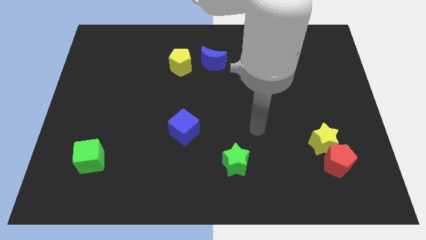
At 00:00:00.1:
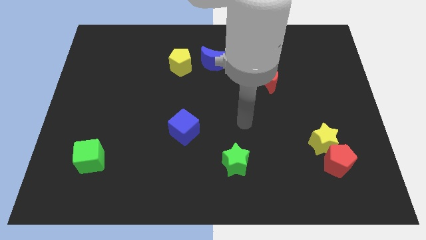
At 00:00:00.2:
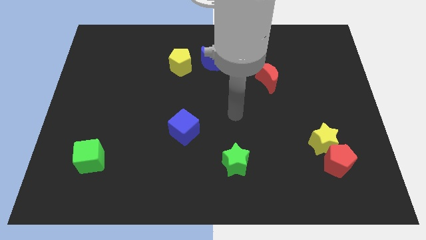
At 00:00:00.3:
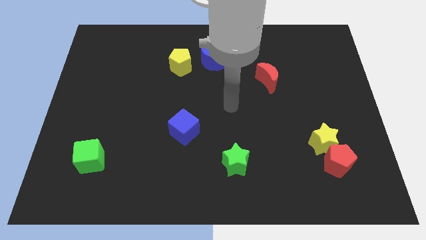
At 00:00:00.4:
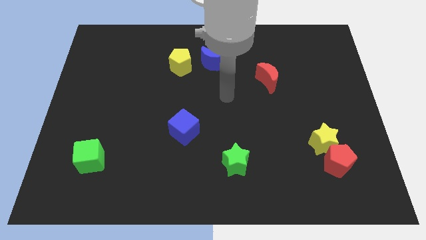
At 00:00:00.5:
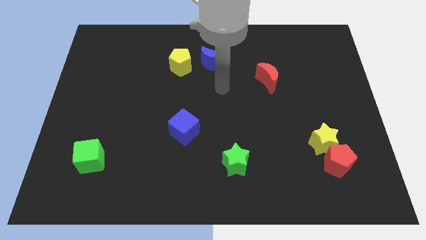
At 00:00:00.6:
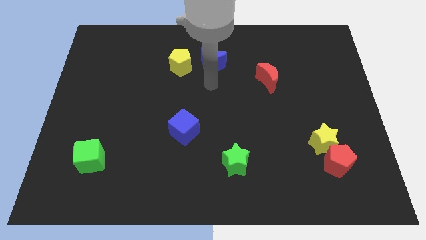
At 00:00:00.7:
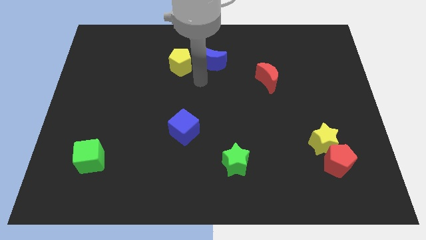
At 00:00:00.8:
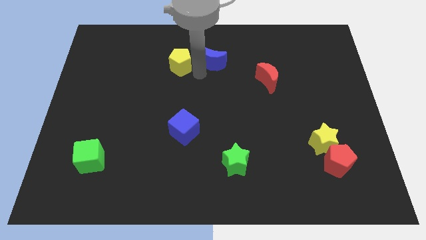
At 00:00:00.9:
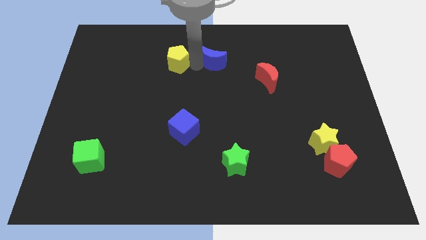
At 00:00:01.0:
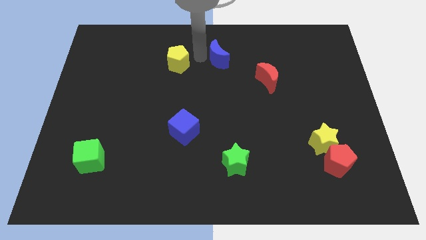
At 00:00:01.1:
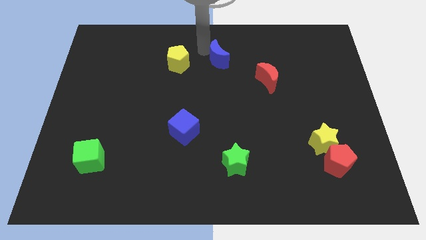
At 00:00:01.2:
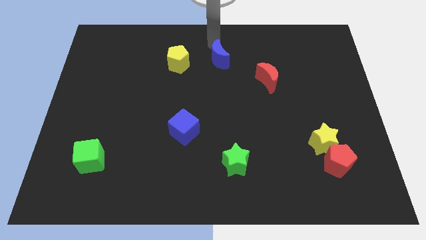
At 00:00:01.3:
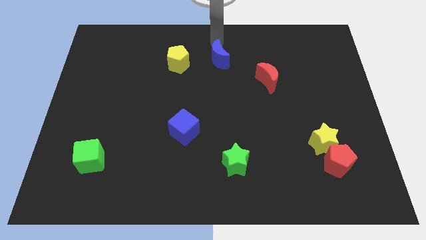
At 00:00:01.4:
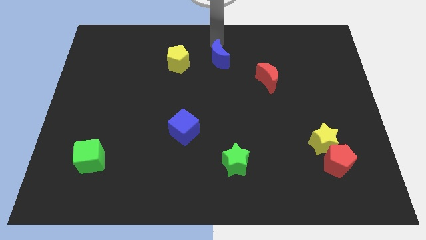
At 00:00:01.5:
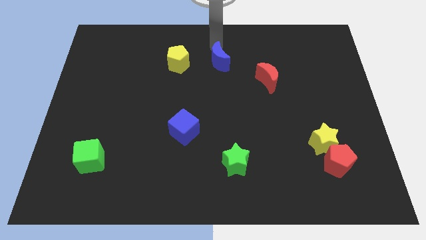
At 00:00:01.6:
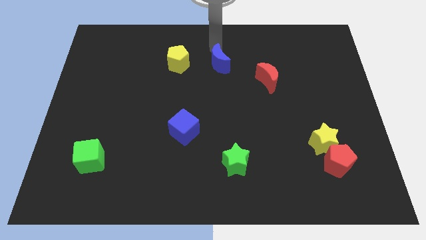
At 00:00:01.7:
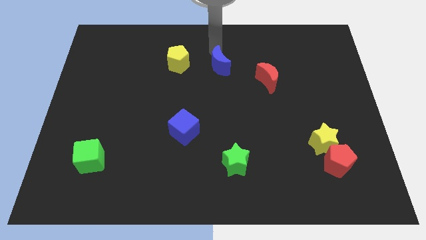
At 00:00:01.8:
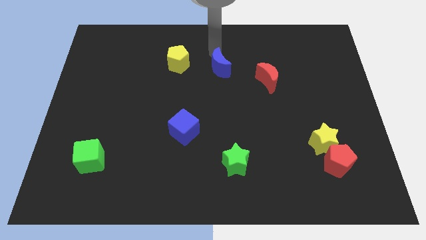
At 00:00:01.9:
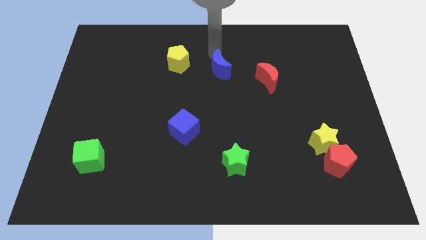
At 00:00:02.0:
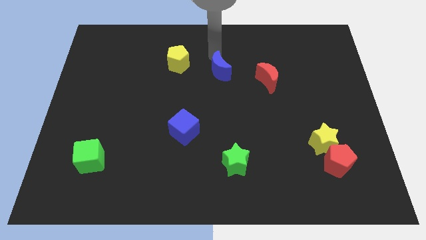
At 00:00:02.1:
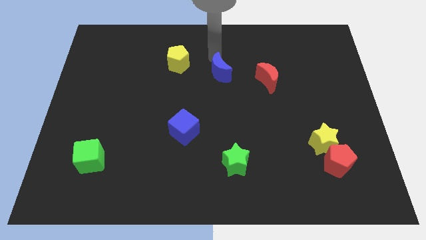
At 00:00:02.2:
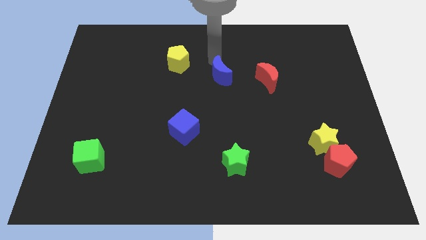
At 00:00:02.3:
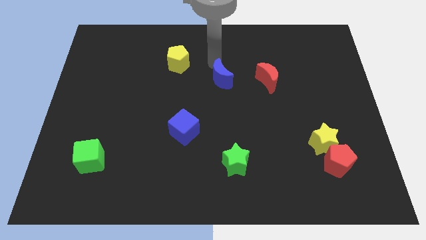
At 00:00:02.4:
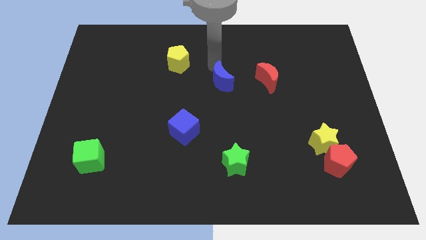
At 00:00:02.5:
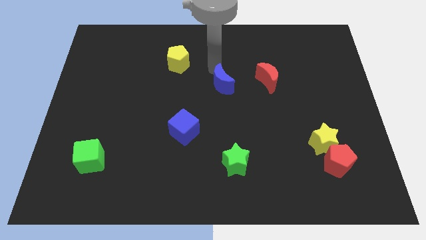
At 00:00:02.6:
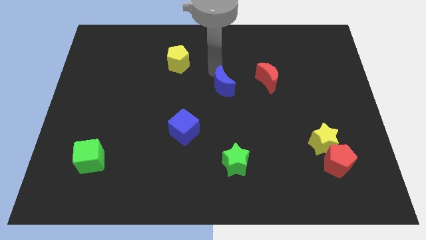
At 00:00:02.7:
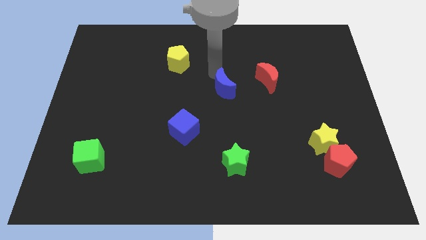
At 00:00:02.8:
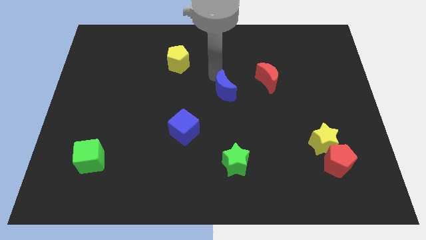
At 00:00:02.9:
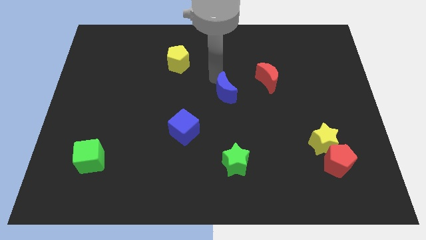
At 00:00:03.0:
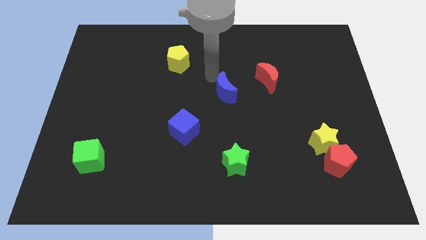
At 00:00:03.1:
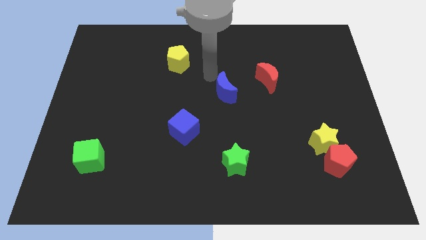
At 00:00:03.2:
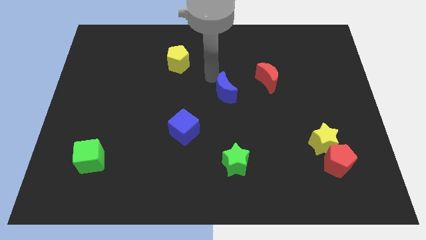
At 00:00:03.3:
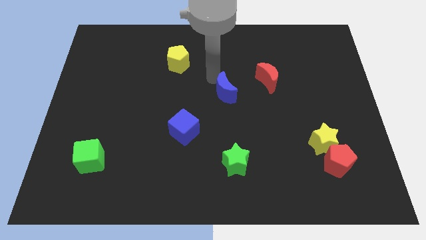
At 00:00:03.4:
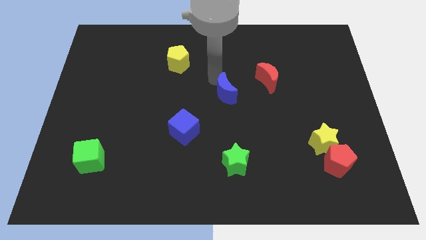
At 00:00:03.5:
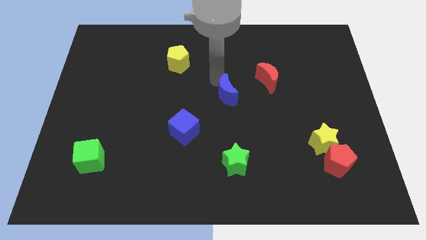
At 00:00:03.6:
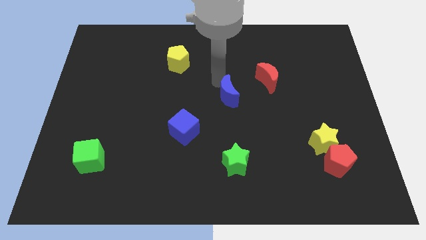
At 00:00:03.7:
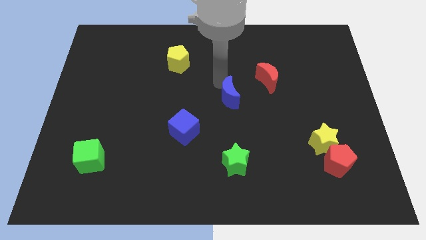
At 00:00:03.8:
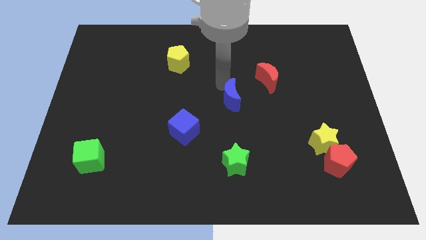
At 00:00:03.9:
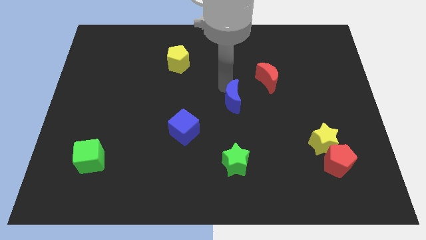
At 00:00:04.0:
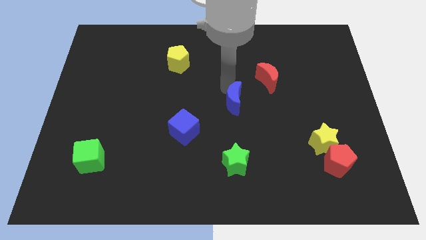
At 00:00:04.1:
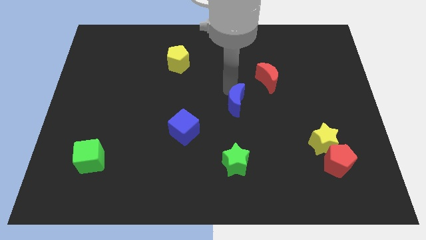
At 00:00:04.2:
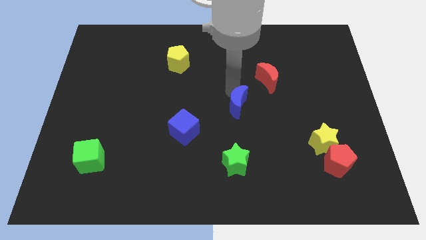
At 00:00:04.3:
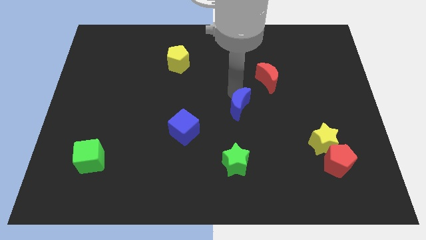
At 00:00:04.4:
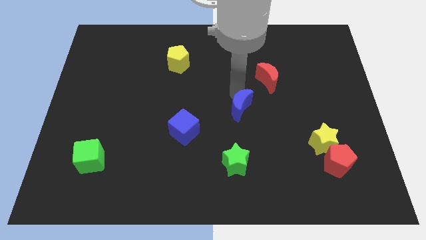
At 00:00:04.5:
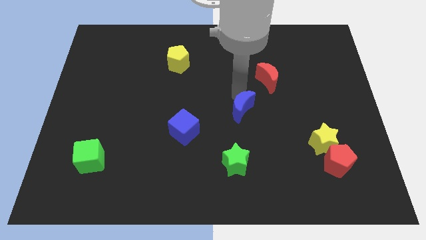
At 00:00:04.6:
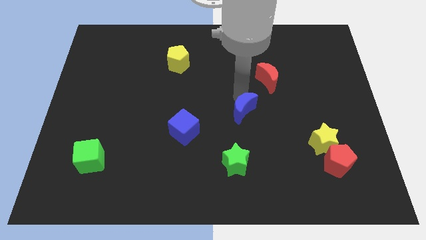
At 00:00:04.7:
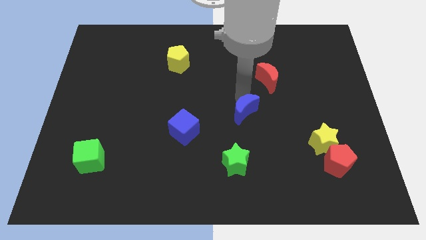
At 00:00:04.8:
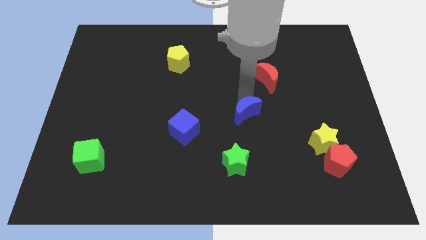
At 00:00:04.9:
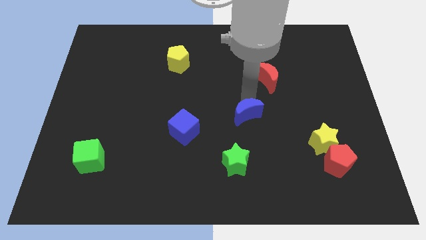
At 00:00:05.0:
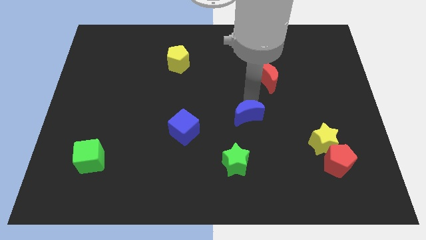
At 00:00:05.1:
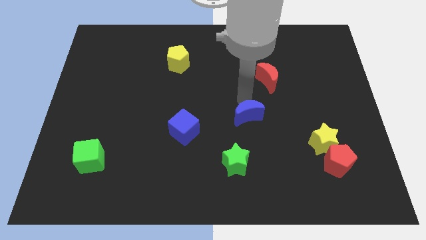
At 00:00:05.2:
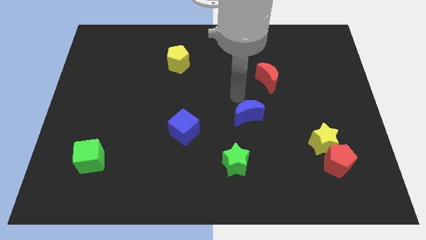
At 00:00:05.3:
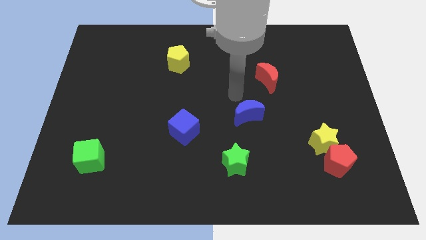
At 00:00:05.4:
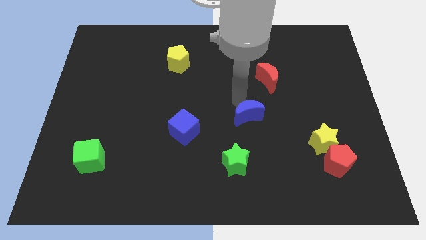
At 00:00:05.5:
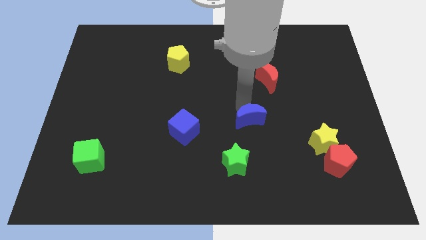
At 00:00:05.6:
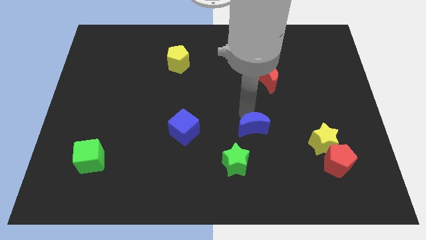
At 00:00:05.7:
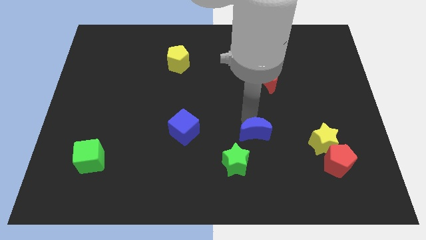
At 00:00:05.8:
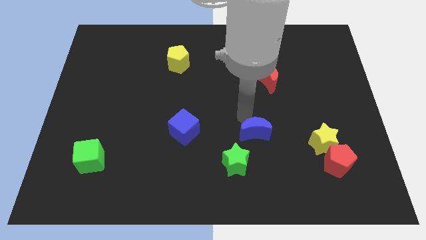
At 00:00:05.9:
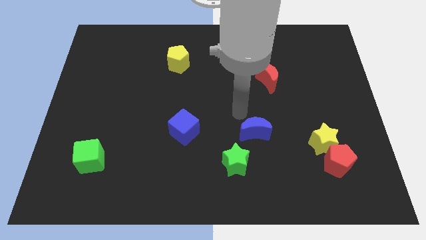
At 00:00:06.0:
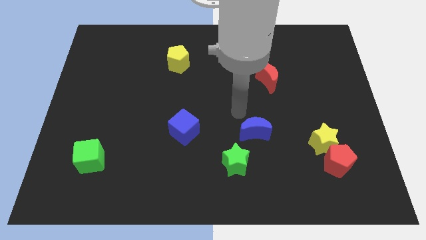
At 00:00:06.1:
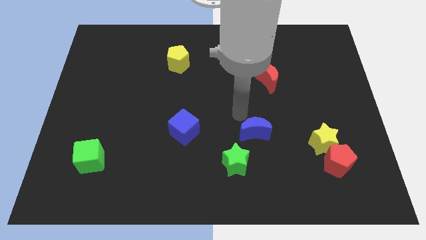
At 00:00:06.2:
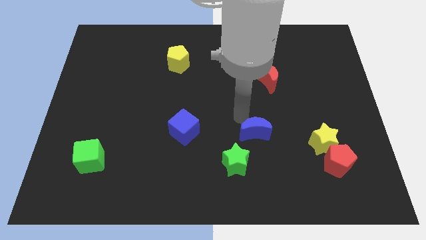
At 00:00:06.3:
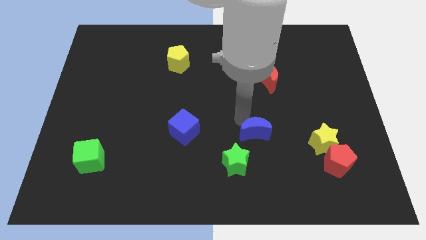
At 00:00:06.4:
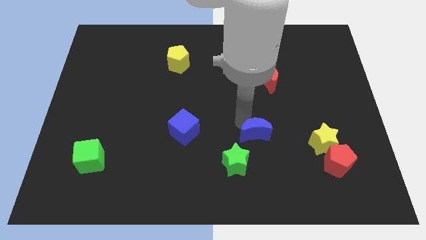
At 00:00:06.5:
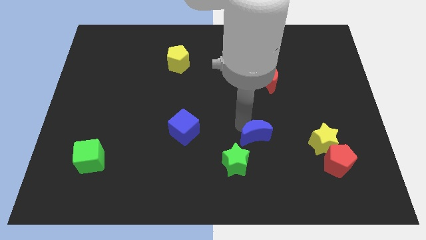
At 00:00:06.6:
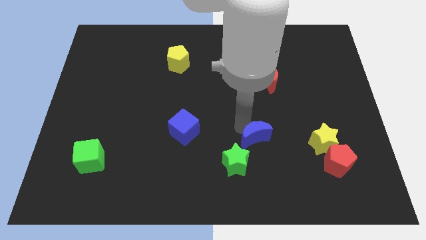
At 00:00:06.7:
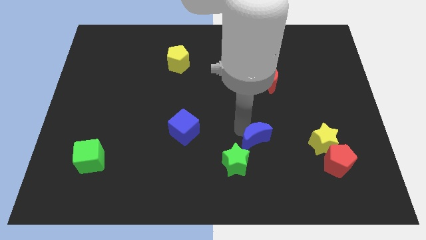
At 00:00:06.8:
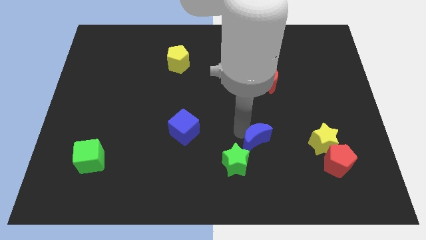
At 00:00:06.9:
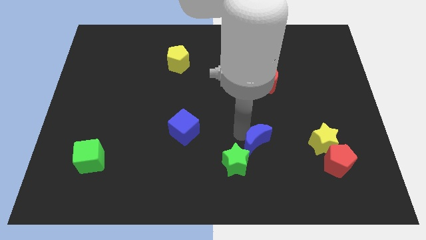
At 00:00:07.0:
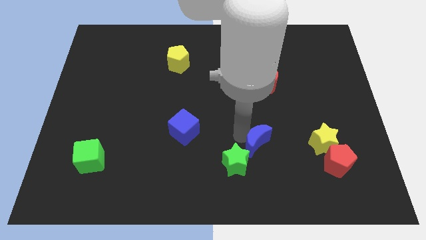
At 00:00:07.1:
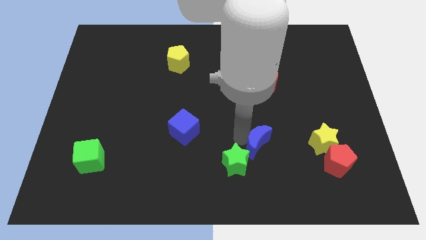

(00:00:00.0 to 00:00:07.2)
move the blue moon right of the green star
